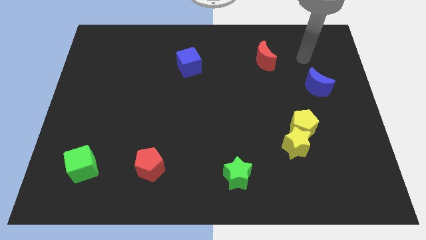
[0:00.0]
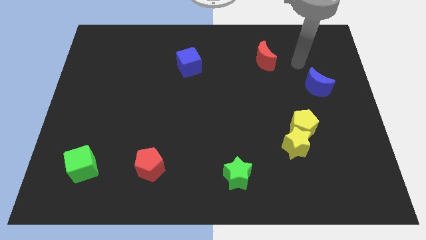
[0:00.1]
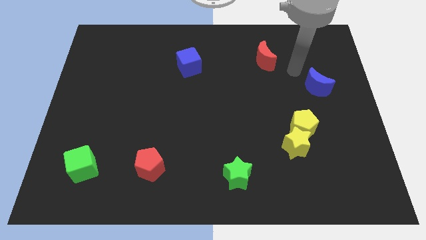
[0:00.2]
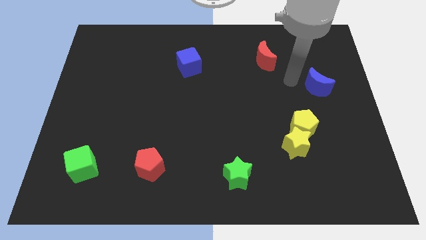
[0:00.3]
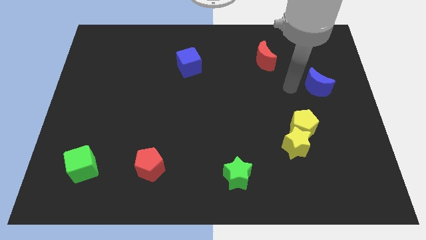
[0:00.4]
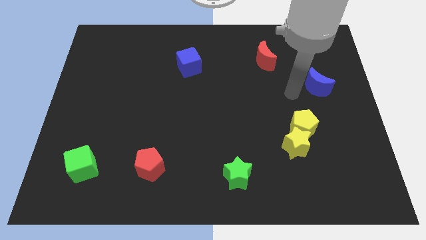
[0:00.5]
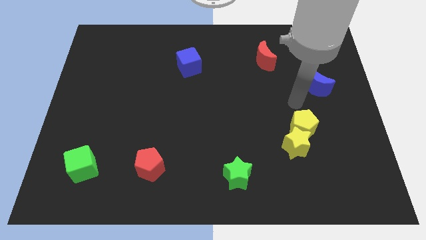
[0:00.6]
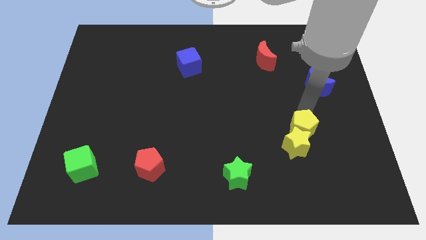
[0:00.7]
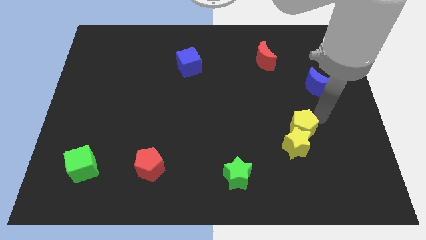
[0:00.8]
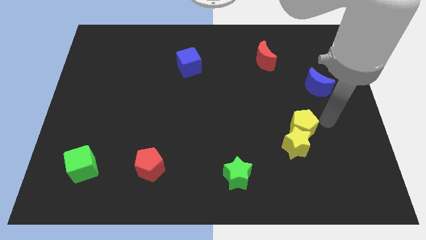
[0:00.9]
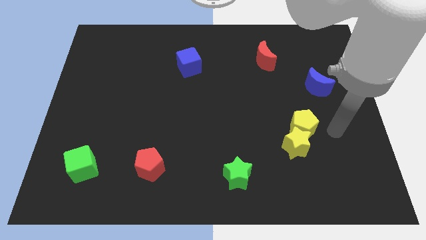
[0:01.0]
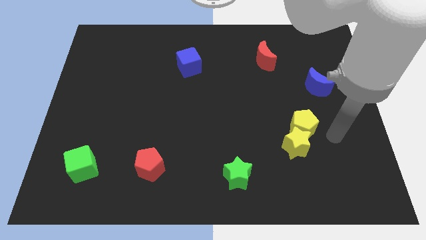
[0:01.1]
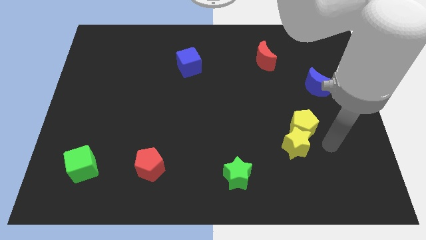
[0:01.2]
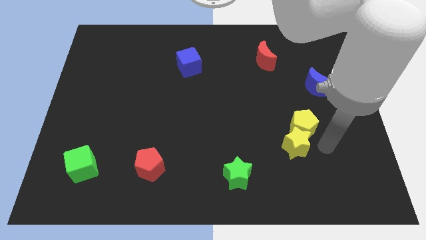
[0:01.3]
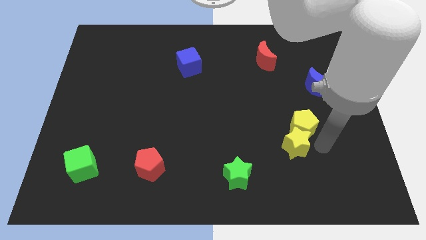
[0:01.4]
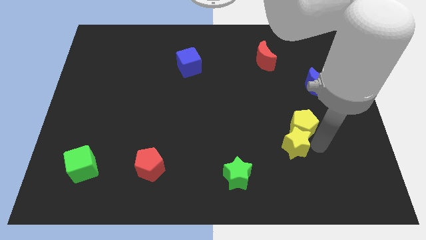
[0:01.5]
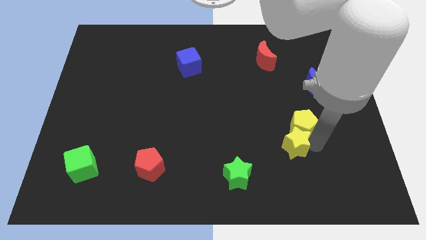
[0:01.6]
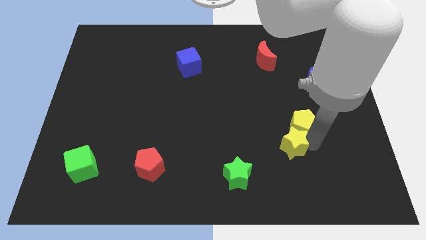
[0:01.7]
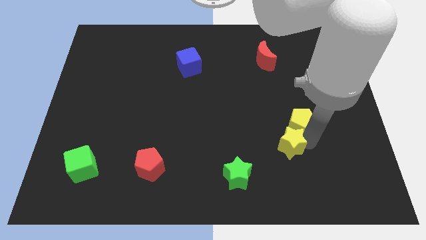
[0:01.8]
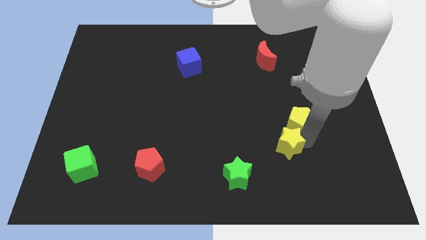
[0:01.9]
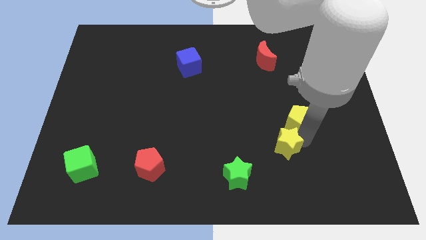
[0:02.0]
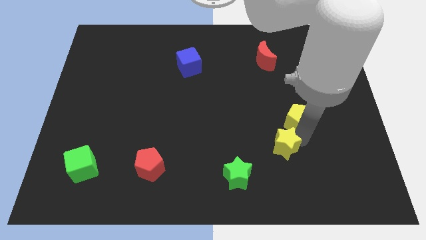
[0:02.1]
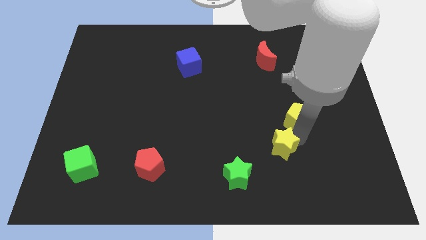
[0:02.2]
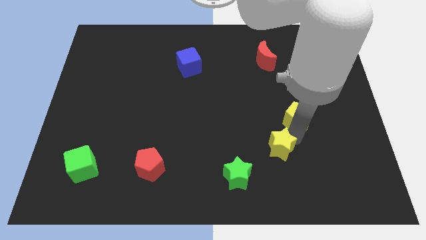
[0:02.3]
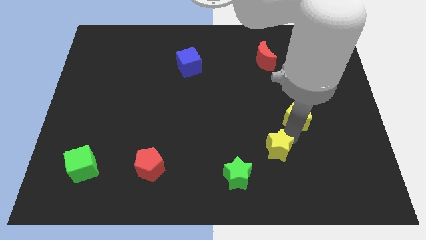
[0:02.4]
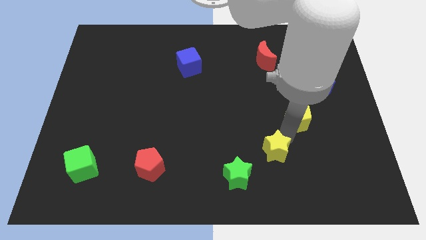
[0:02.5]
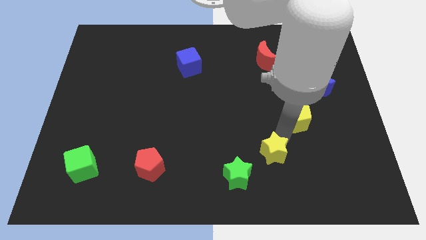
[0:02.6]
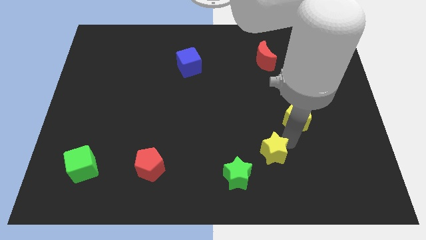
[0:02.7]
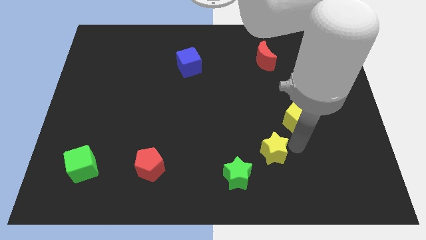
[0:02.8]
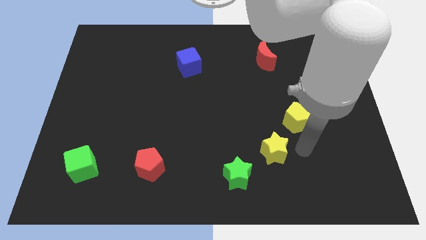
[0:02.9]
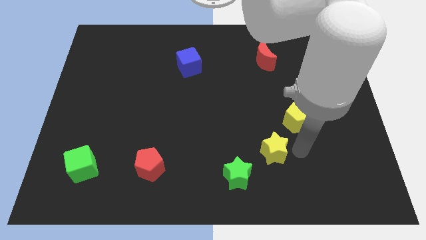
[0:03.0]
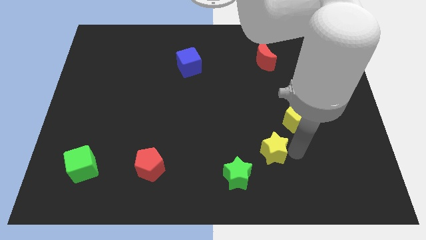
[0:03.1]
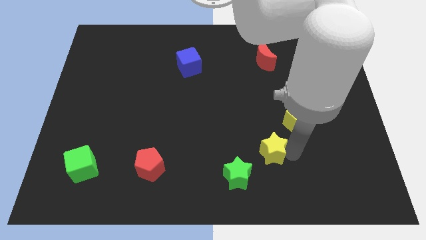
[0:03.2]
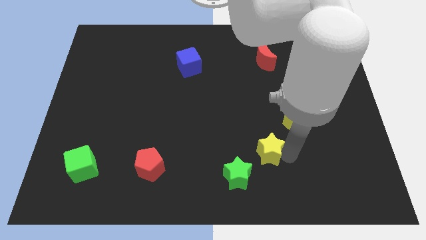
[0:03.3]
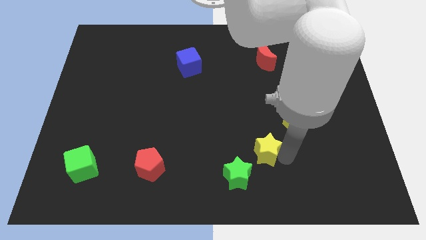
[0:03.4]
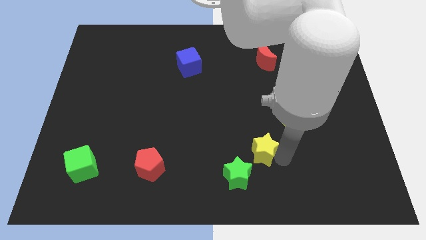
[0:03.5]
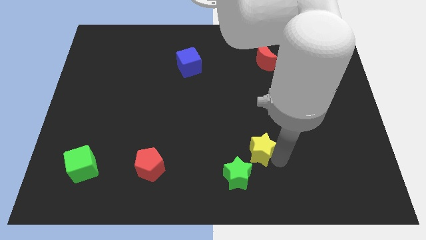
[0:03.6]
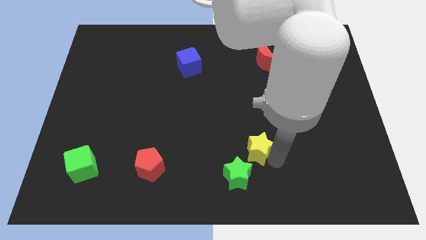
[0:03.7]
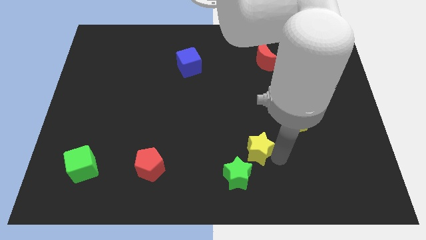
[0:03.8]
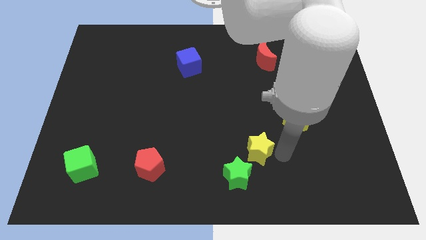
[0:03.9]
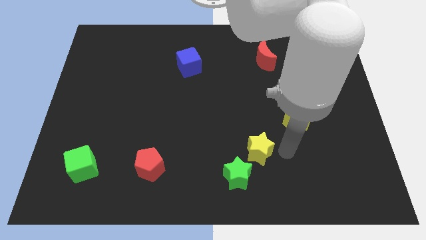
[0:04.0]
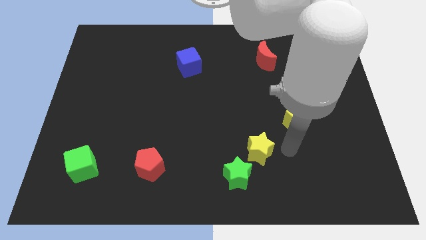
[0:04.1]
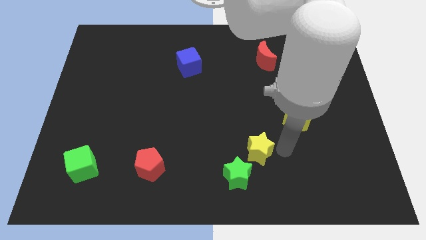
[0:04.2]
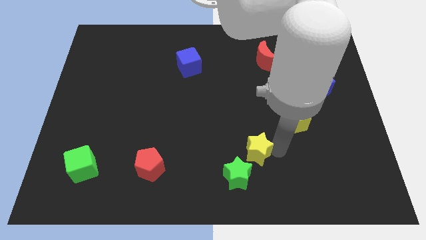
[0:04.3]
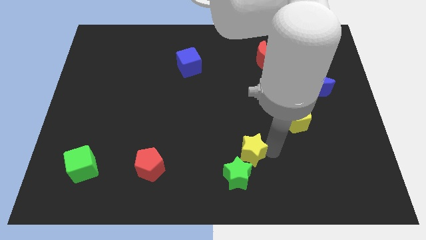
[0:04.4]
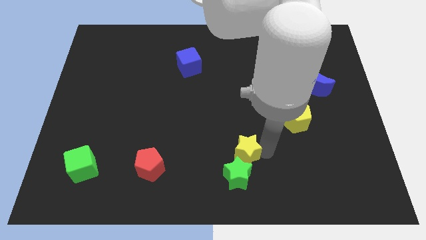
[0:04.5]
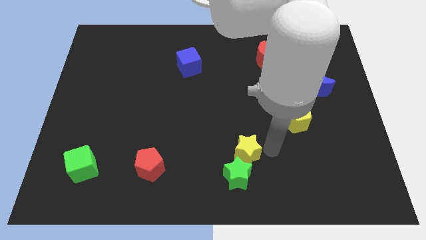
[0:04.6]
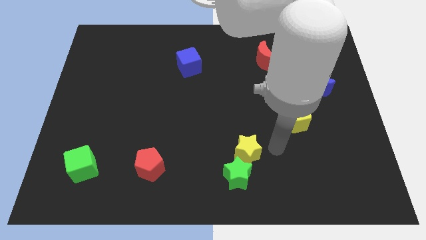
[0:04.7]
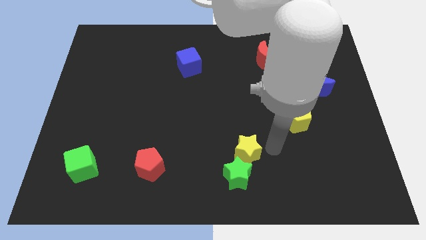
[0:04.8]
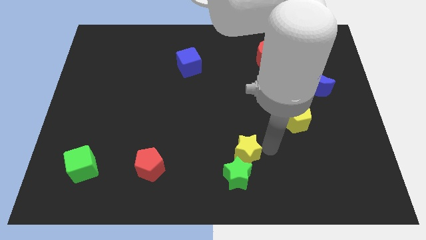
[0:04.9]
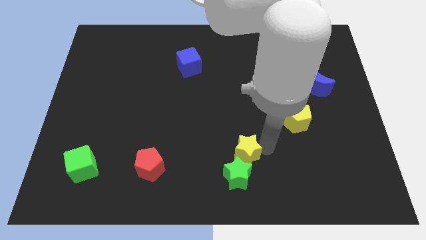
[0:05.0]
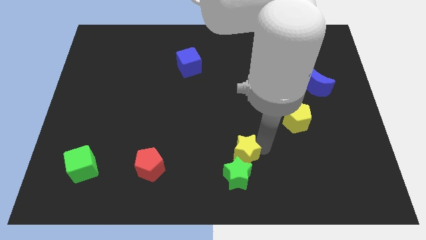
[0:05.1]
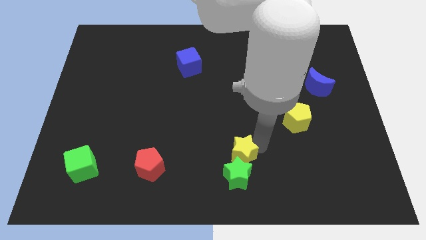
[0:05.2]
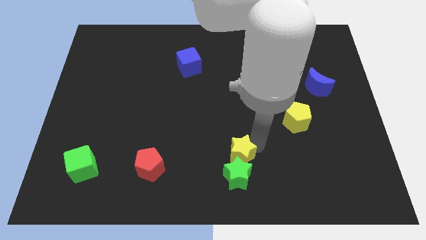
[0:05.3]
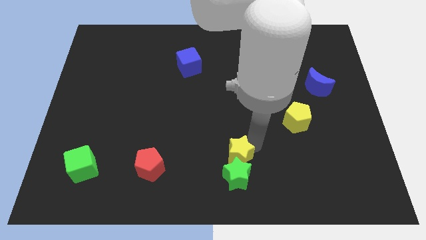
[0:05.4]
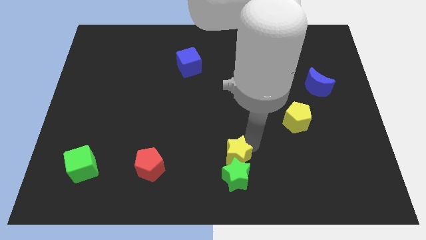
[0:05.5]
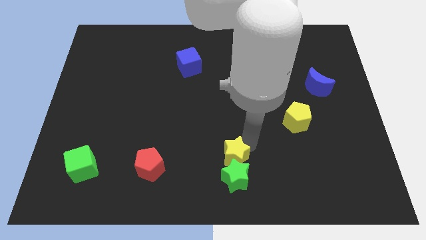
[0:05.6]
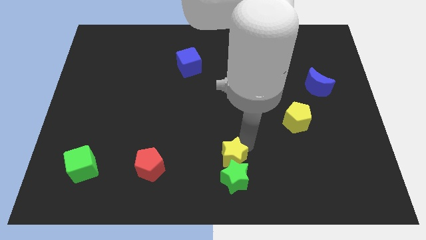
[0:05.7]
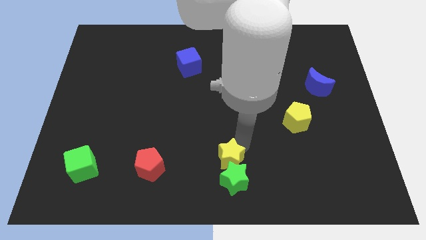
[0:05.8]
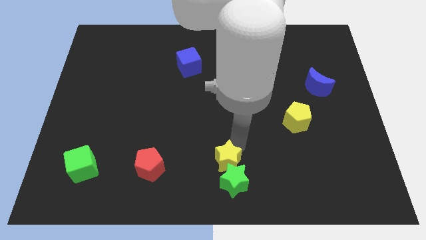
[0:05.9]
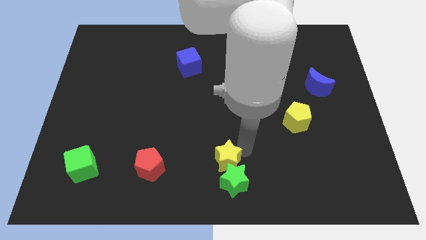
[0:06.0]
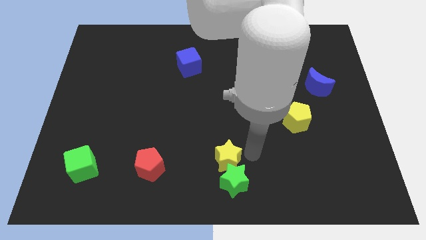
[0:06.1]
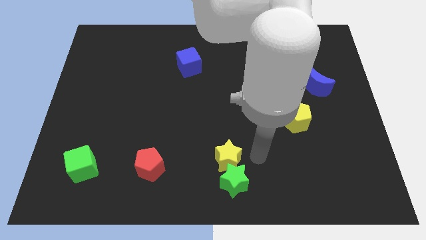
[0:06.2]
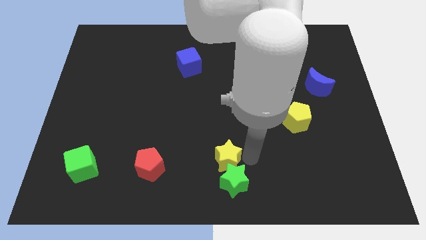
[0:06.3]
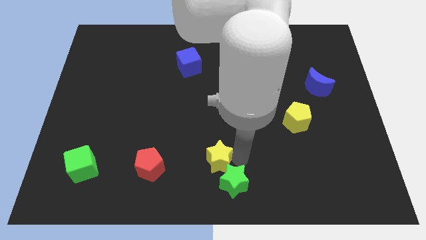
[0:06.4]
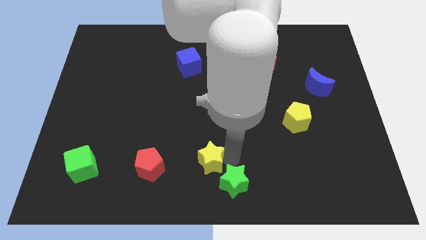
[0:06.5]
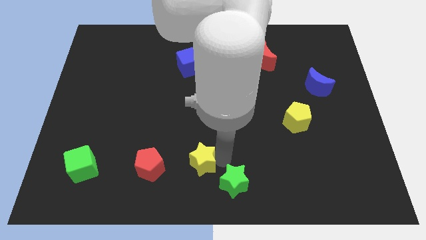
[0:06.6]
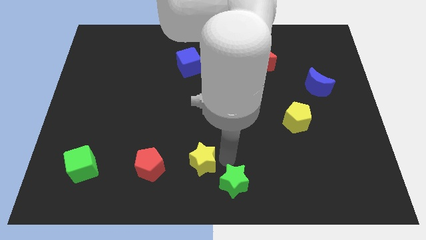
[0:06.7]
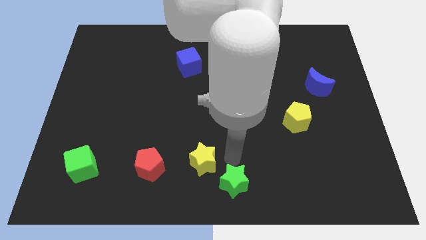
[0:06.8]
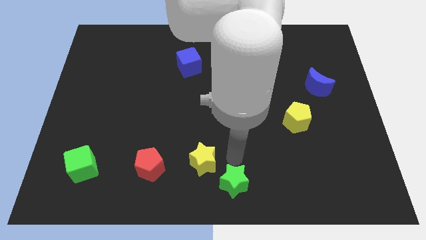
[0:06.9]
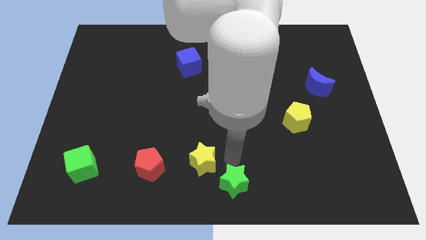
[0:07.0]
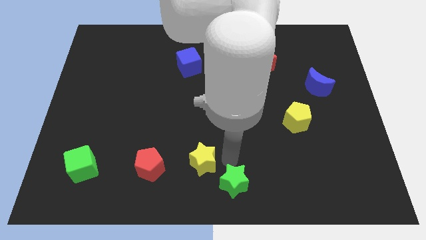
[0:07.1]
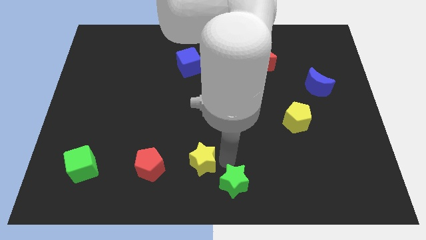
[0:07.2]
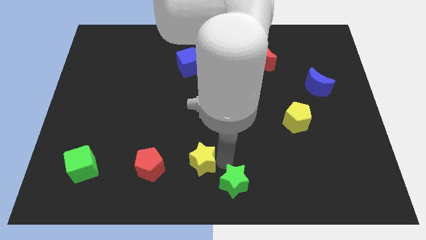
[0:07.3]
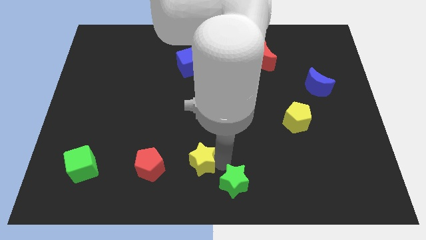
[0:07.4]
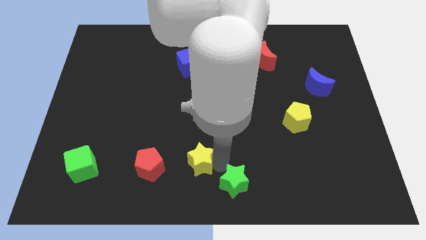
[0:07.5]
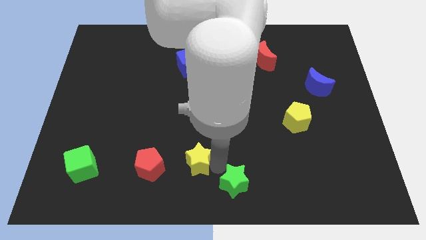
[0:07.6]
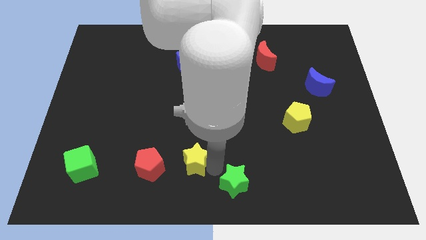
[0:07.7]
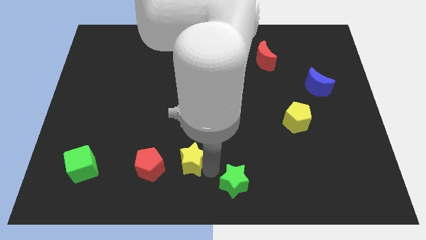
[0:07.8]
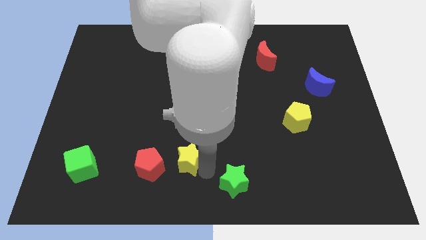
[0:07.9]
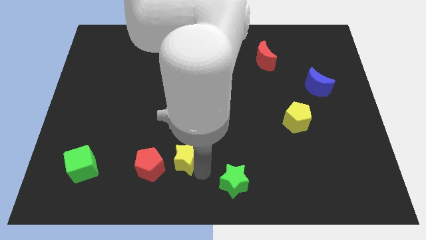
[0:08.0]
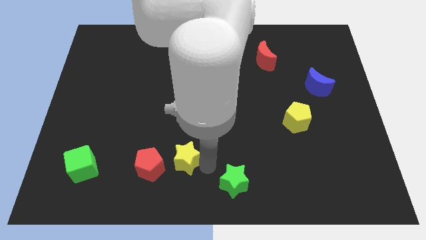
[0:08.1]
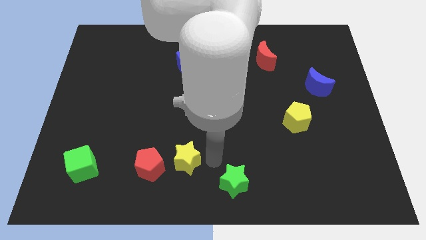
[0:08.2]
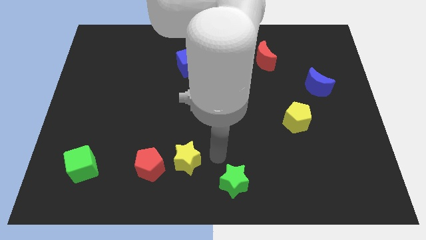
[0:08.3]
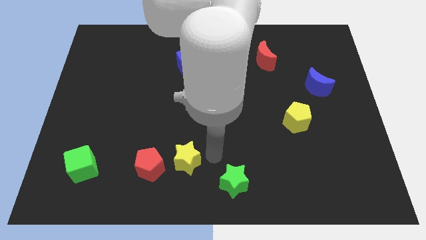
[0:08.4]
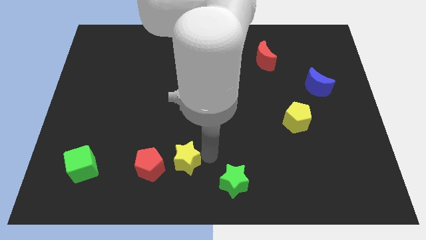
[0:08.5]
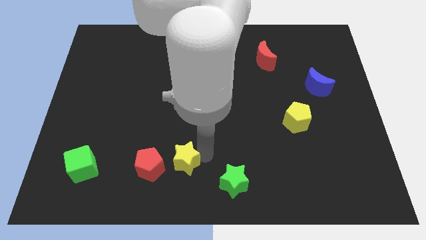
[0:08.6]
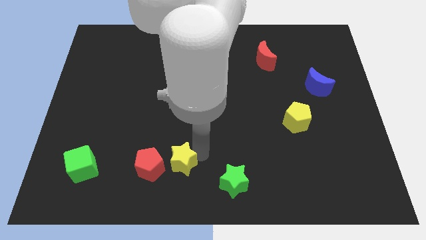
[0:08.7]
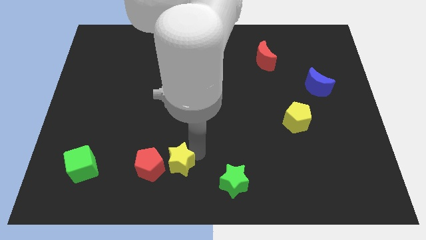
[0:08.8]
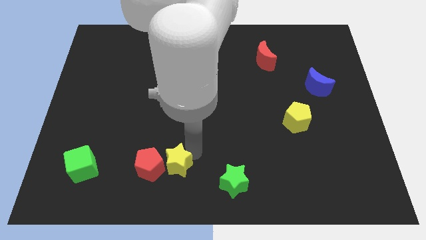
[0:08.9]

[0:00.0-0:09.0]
move the yellow star towards the red pentagon
